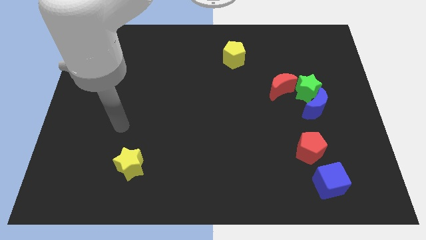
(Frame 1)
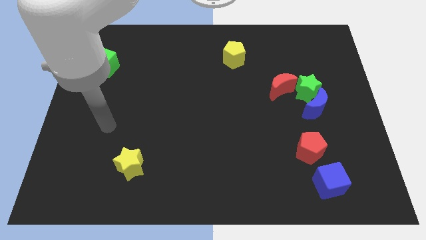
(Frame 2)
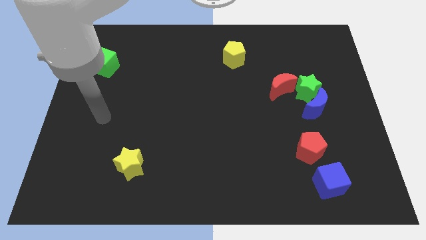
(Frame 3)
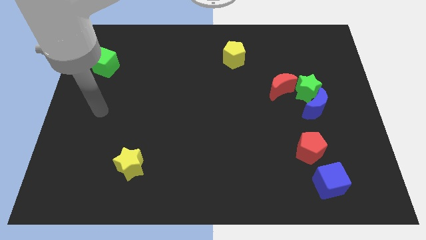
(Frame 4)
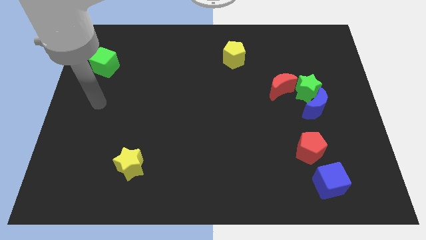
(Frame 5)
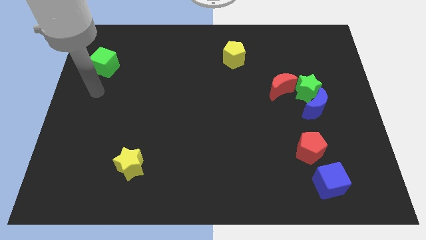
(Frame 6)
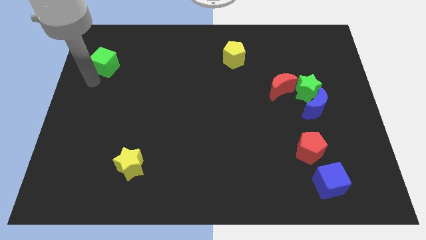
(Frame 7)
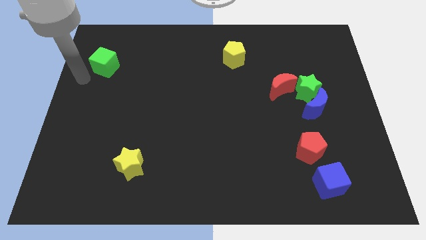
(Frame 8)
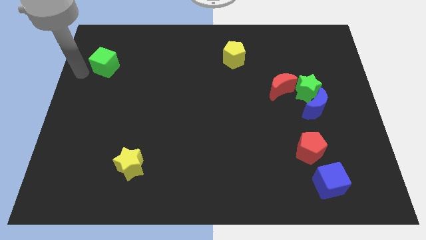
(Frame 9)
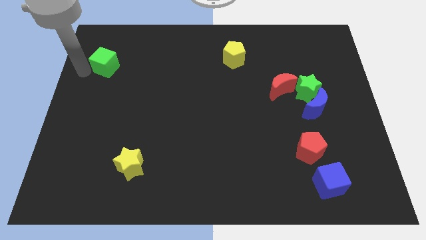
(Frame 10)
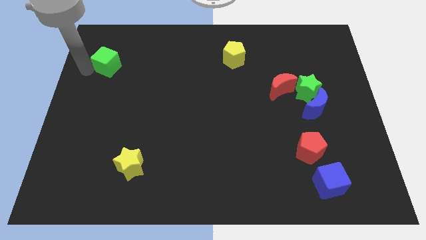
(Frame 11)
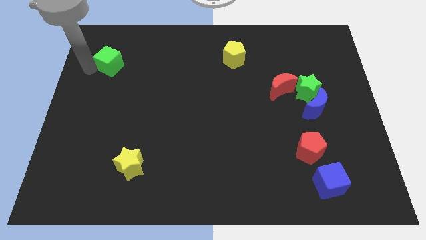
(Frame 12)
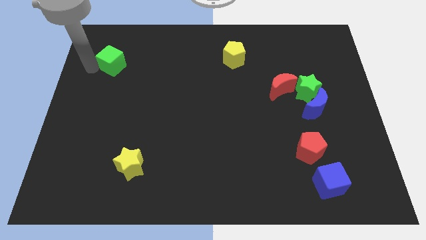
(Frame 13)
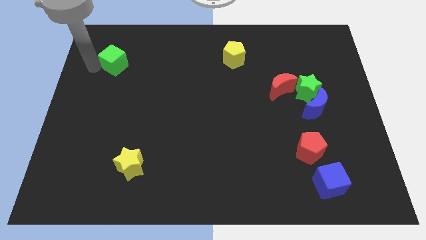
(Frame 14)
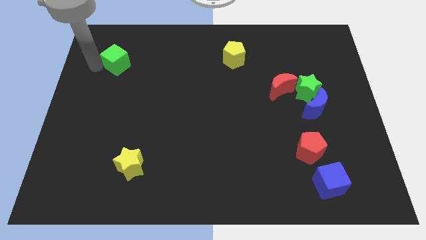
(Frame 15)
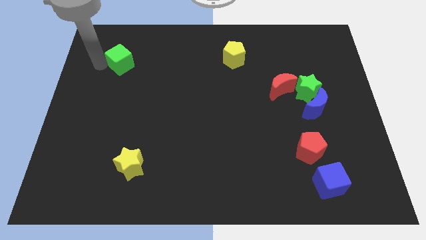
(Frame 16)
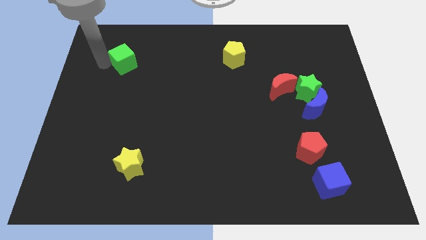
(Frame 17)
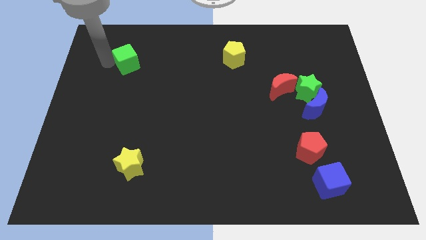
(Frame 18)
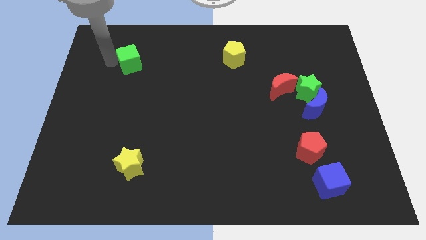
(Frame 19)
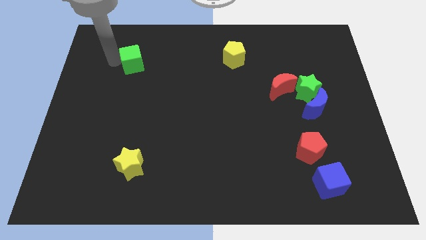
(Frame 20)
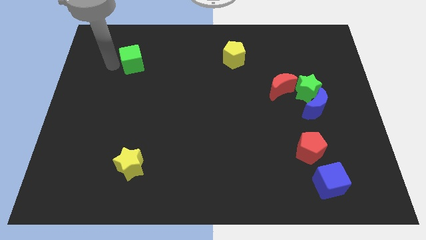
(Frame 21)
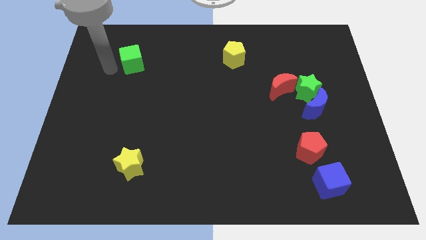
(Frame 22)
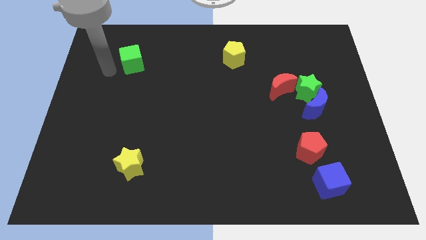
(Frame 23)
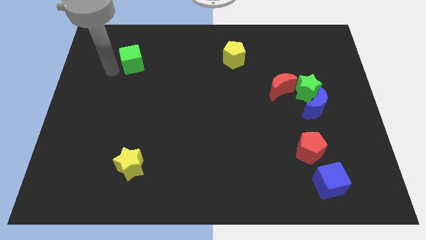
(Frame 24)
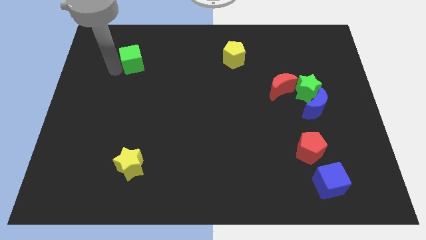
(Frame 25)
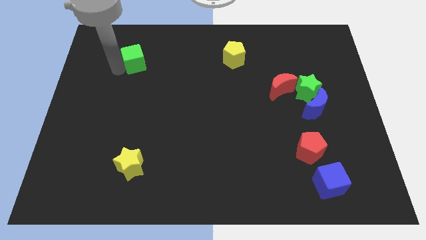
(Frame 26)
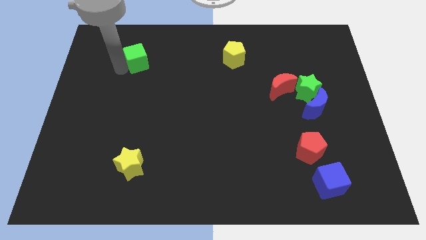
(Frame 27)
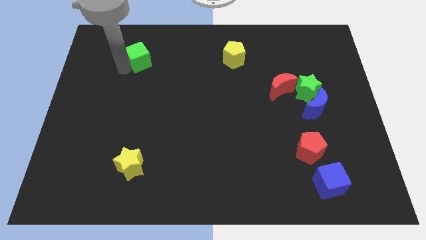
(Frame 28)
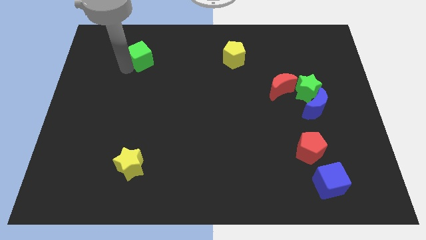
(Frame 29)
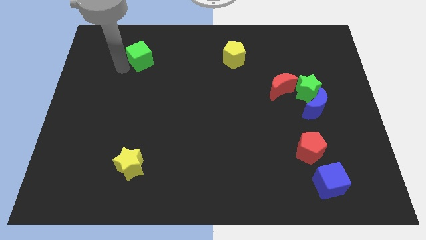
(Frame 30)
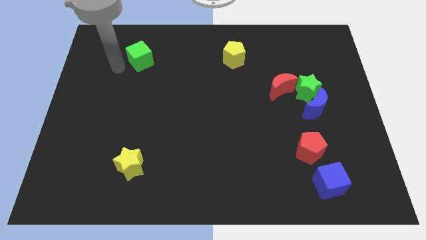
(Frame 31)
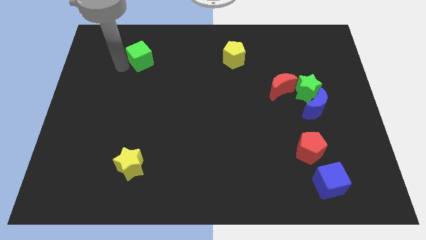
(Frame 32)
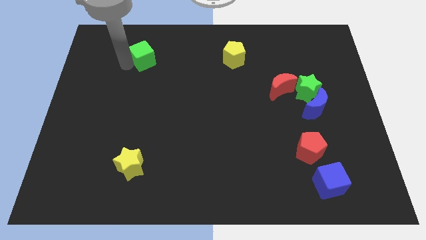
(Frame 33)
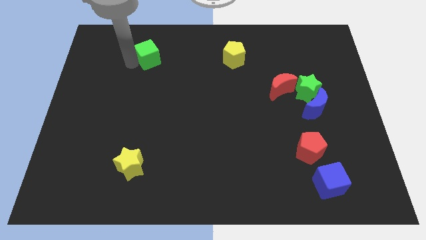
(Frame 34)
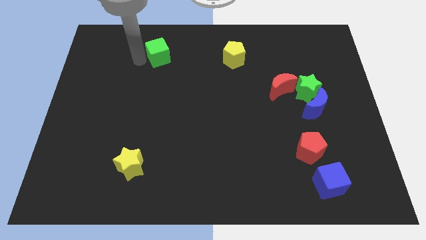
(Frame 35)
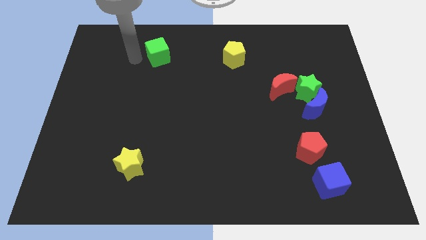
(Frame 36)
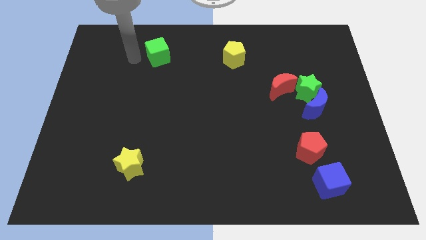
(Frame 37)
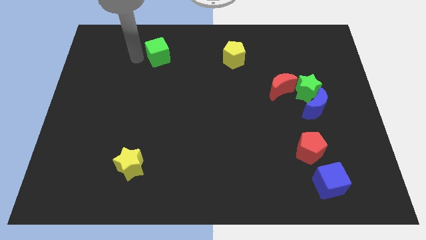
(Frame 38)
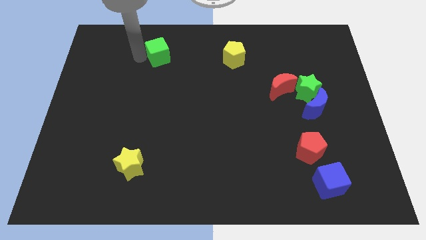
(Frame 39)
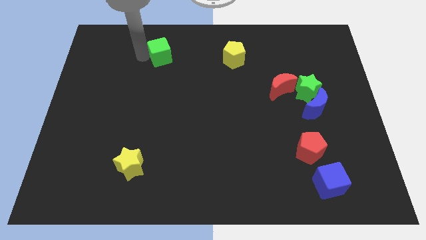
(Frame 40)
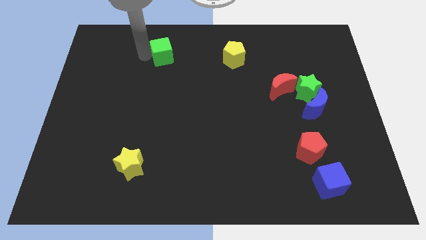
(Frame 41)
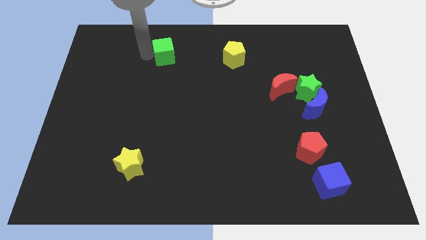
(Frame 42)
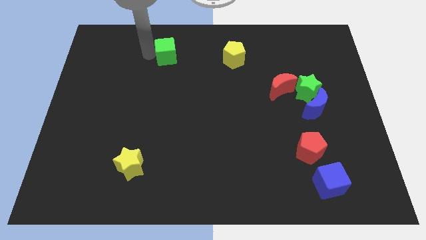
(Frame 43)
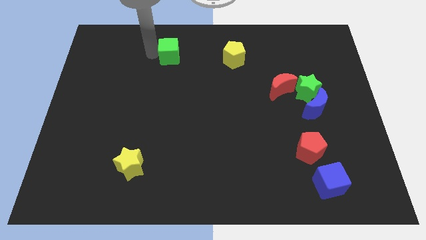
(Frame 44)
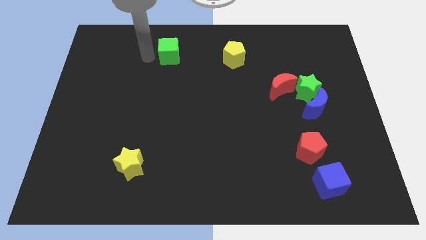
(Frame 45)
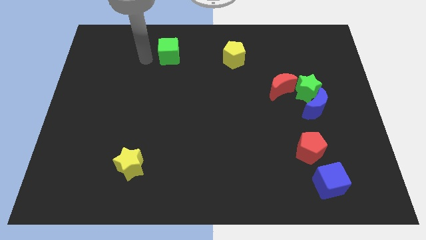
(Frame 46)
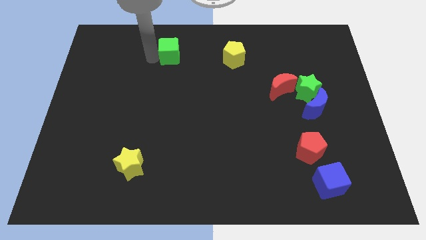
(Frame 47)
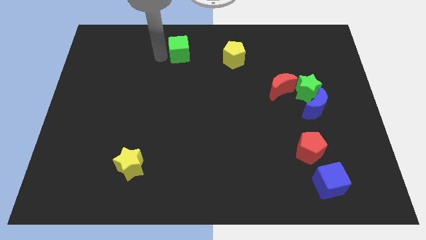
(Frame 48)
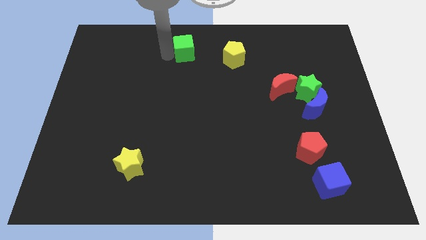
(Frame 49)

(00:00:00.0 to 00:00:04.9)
slide the green cube to the top

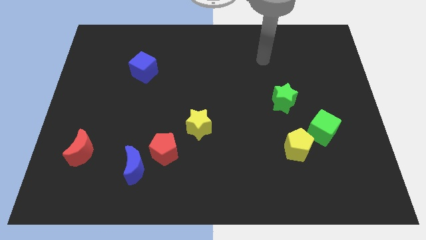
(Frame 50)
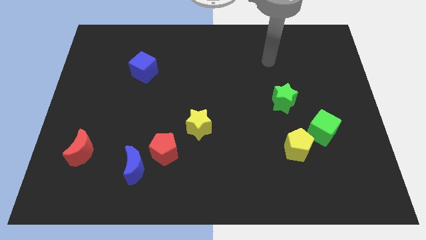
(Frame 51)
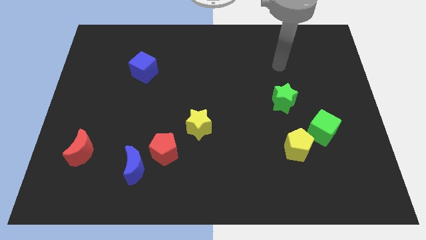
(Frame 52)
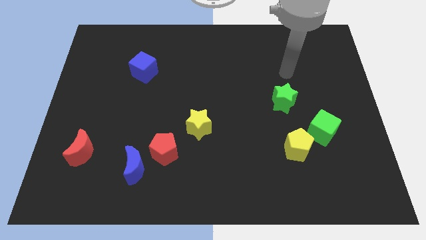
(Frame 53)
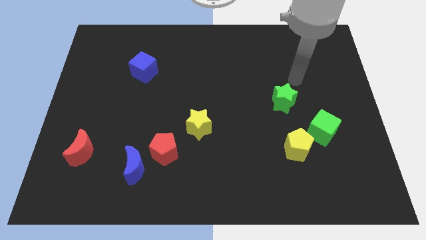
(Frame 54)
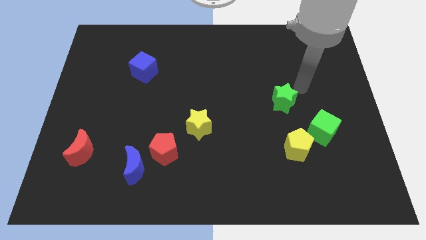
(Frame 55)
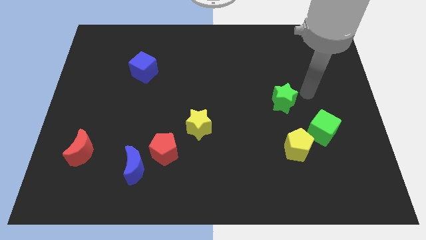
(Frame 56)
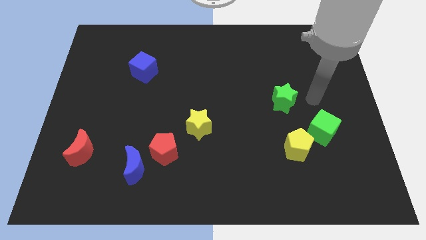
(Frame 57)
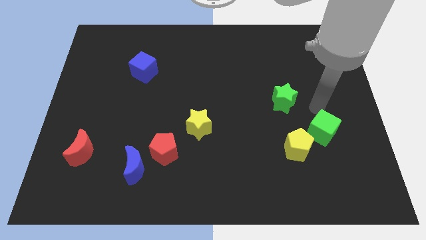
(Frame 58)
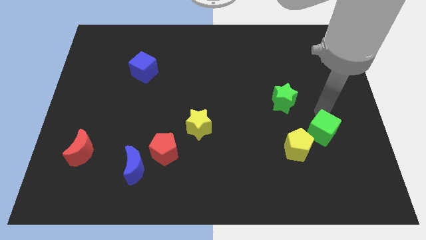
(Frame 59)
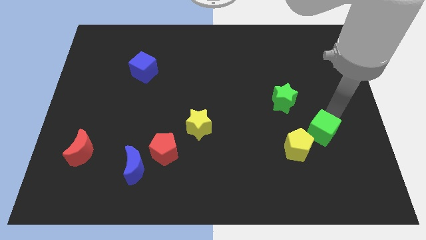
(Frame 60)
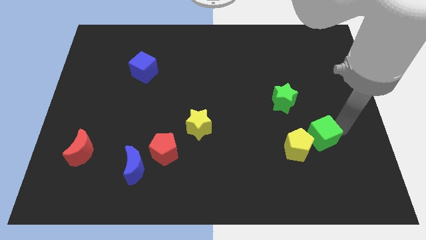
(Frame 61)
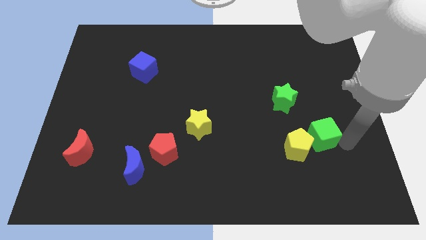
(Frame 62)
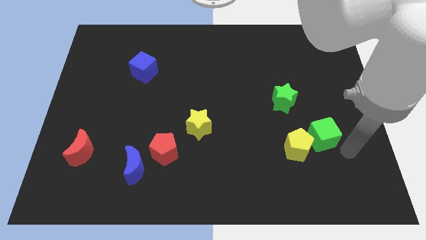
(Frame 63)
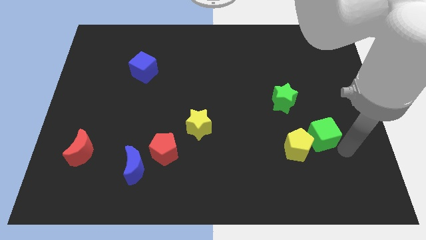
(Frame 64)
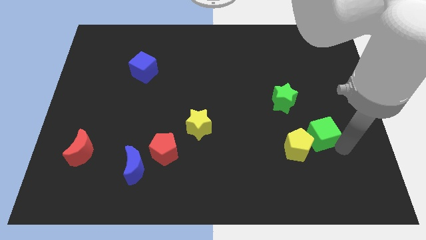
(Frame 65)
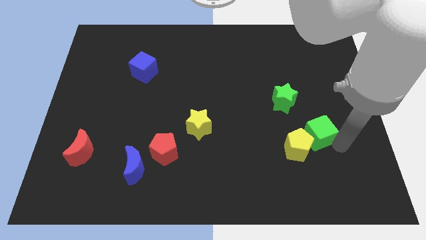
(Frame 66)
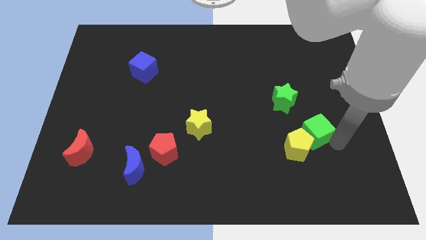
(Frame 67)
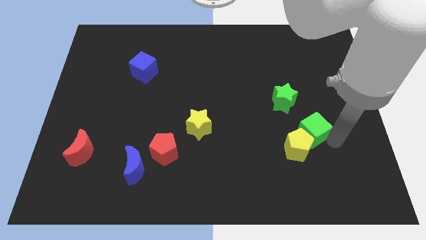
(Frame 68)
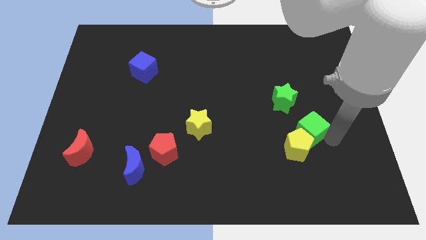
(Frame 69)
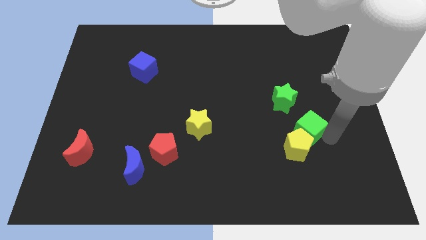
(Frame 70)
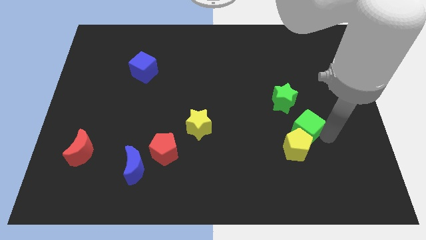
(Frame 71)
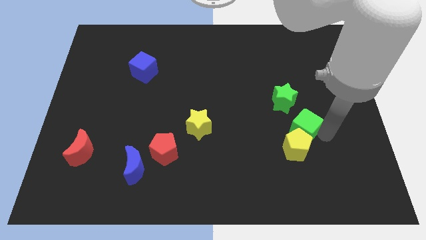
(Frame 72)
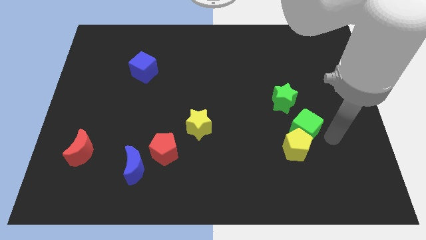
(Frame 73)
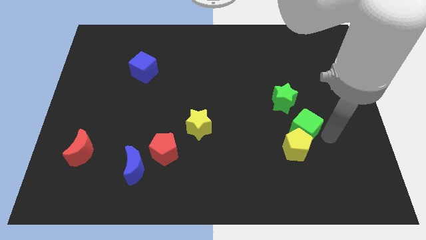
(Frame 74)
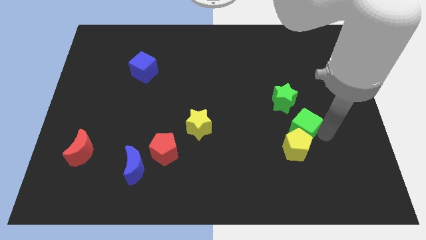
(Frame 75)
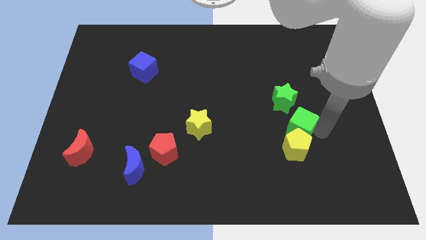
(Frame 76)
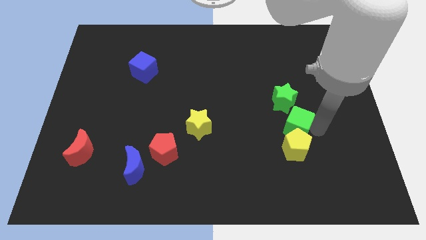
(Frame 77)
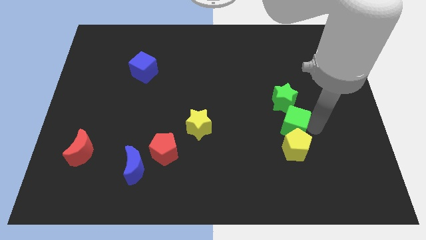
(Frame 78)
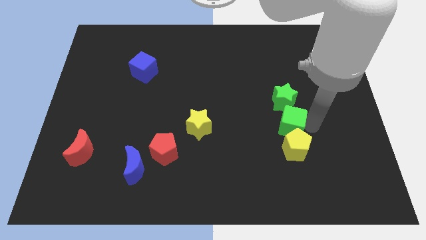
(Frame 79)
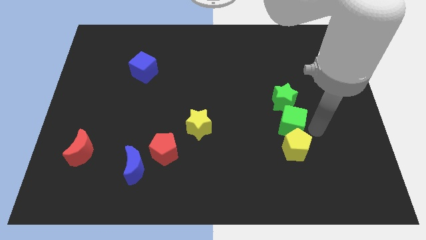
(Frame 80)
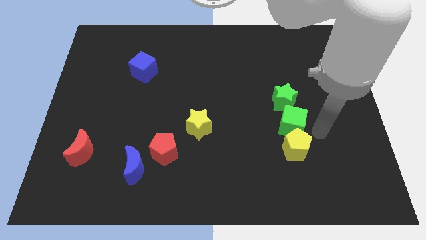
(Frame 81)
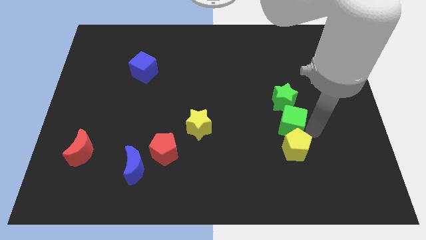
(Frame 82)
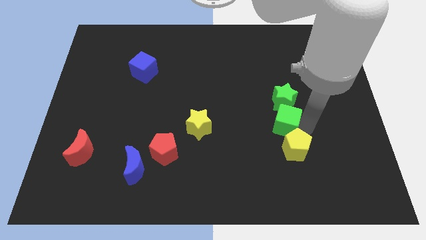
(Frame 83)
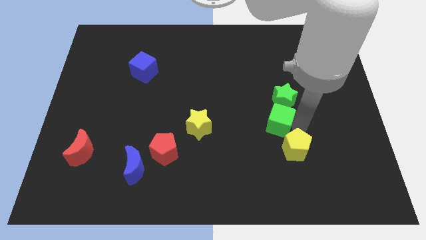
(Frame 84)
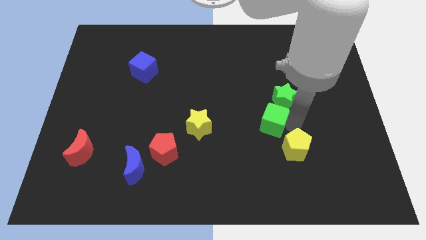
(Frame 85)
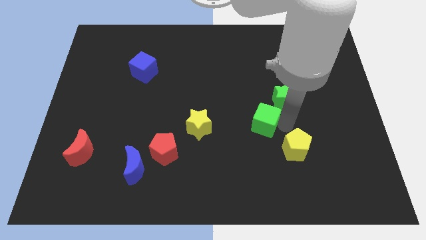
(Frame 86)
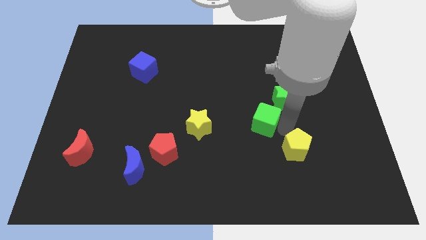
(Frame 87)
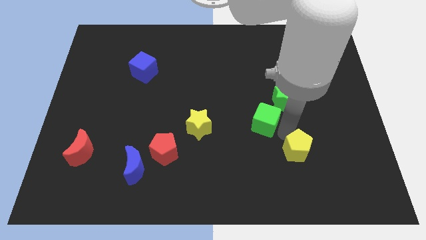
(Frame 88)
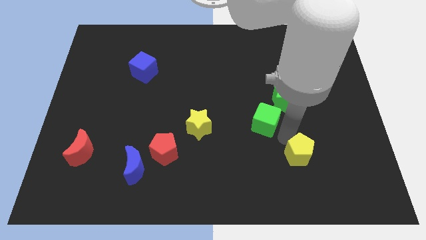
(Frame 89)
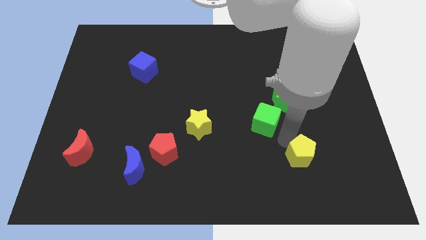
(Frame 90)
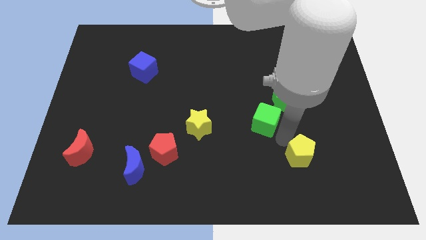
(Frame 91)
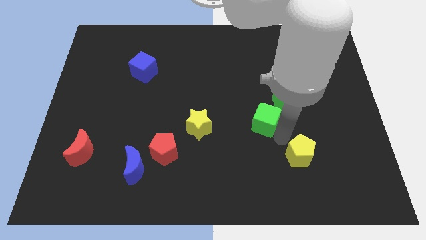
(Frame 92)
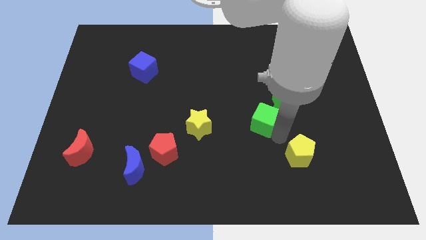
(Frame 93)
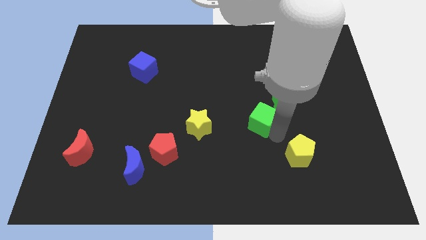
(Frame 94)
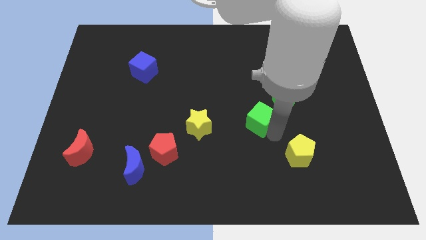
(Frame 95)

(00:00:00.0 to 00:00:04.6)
put the green cube to the center
